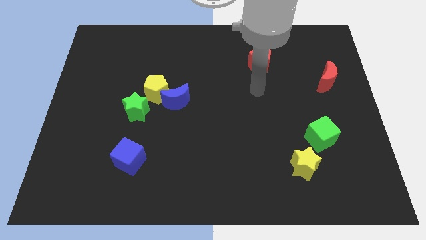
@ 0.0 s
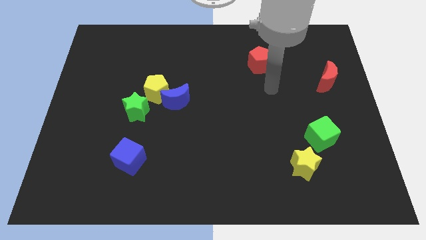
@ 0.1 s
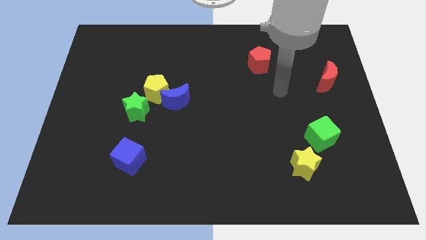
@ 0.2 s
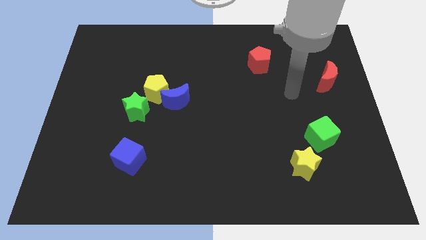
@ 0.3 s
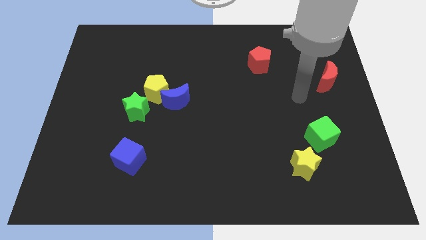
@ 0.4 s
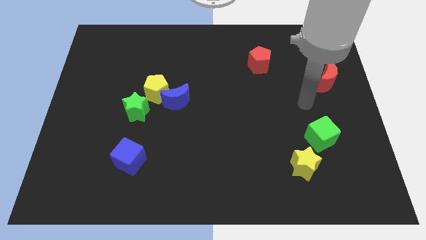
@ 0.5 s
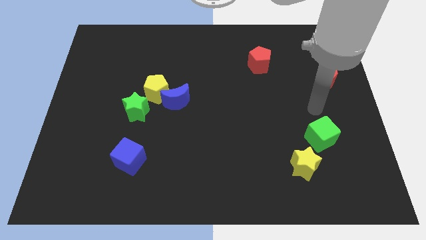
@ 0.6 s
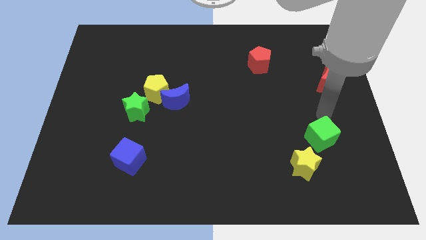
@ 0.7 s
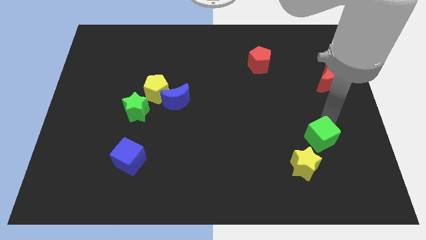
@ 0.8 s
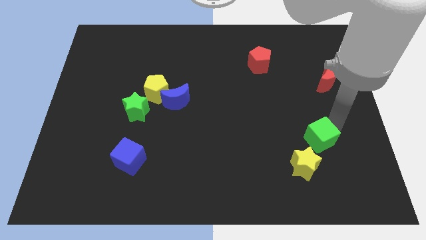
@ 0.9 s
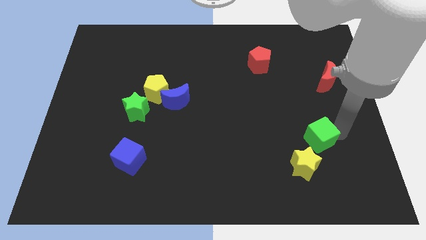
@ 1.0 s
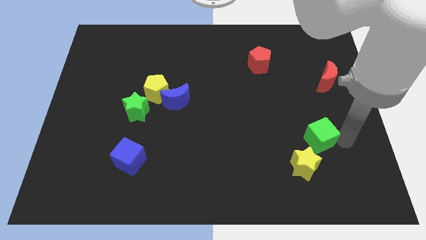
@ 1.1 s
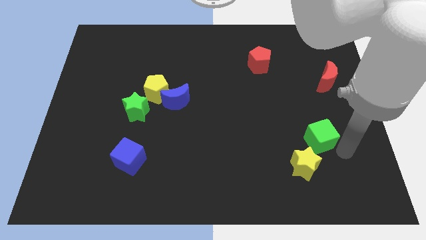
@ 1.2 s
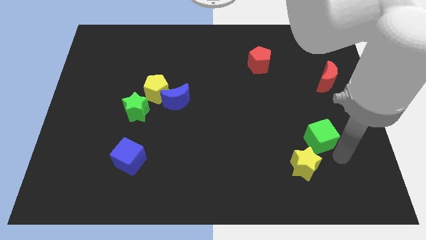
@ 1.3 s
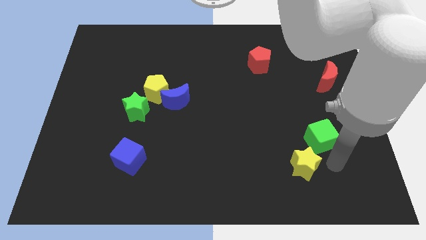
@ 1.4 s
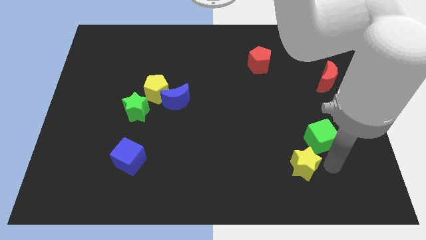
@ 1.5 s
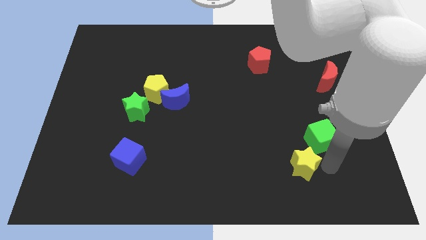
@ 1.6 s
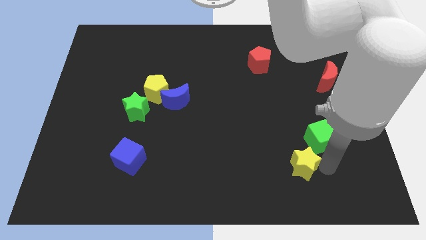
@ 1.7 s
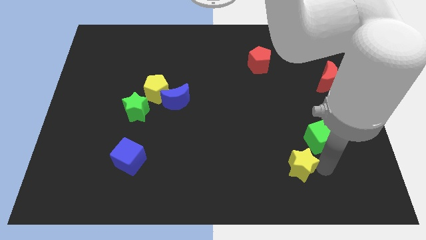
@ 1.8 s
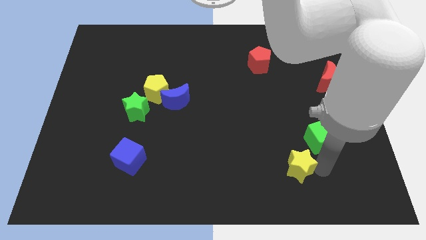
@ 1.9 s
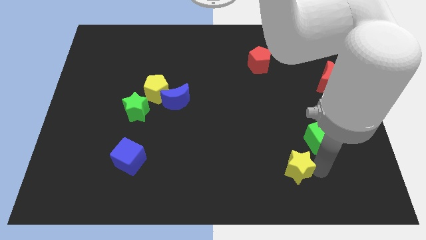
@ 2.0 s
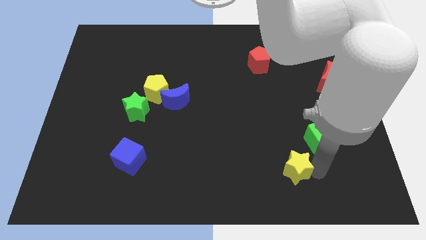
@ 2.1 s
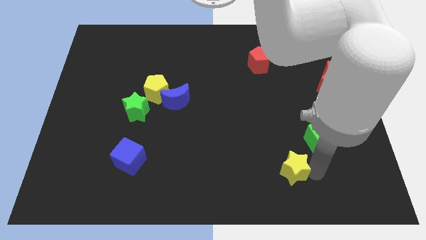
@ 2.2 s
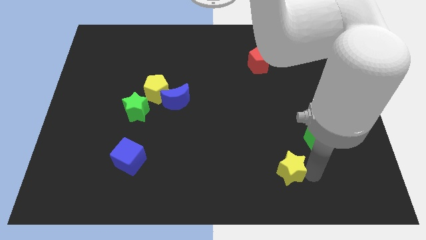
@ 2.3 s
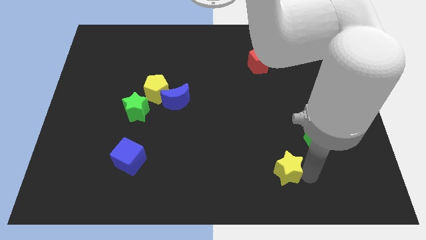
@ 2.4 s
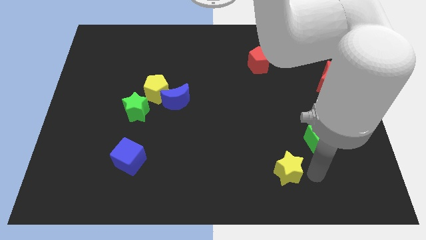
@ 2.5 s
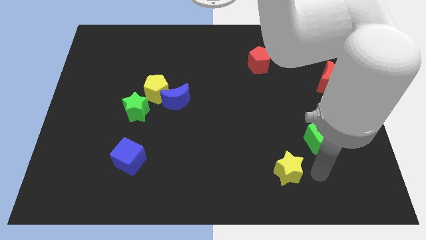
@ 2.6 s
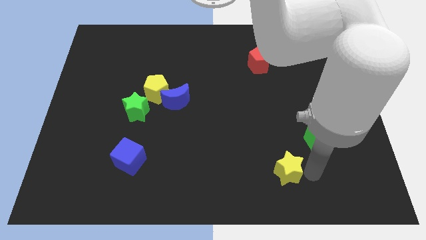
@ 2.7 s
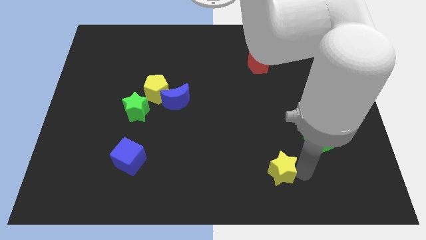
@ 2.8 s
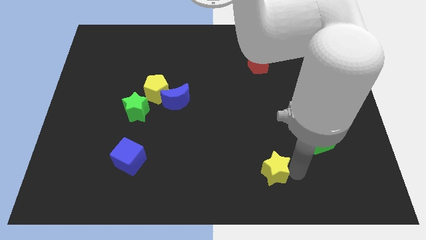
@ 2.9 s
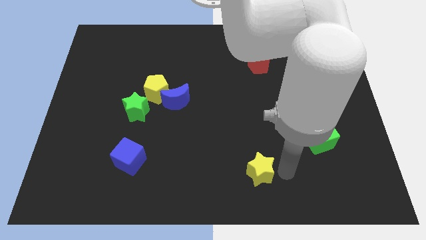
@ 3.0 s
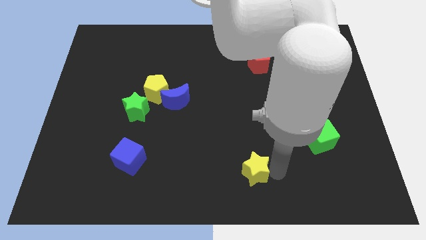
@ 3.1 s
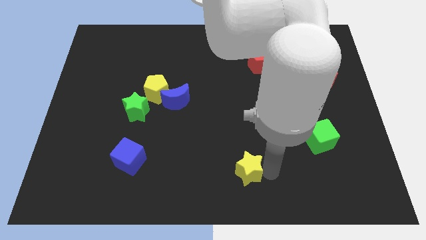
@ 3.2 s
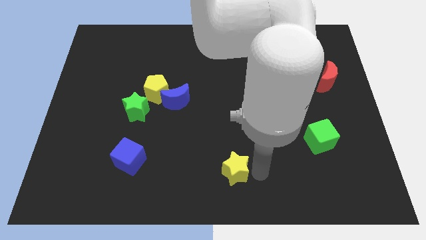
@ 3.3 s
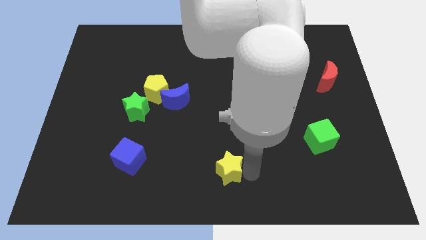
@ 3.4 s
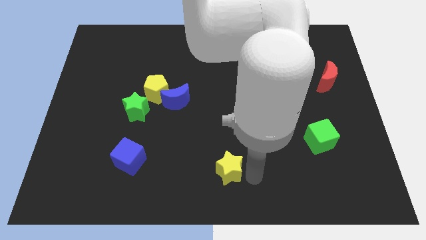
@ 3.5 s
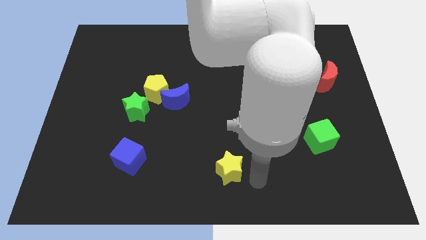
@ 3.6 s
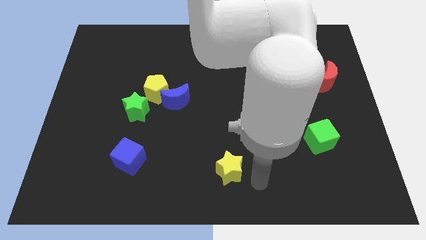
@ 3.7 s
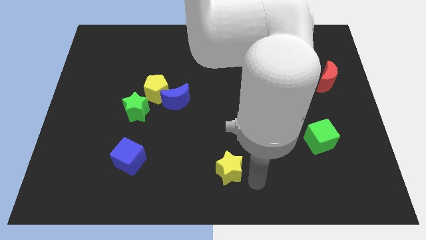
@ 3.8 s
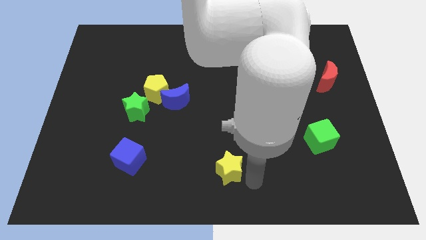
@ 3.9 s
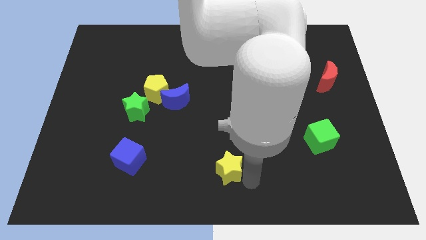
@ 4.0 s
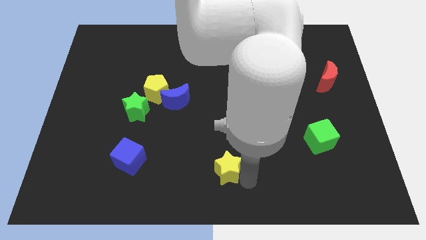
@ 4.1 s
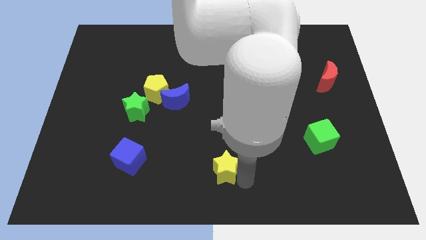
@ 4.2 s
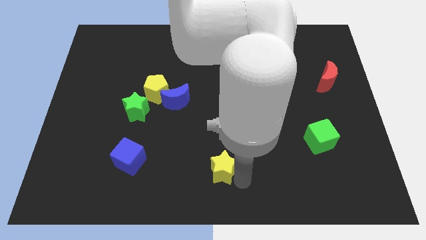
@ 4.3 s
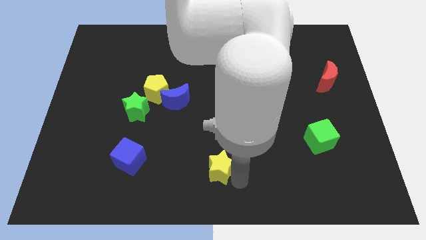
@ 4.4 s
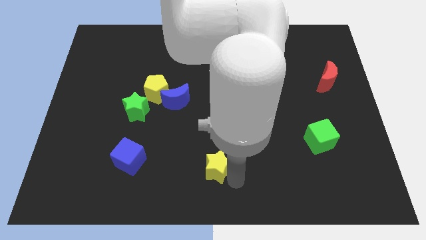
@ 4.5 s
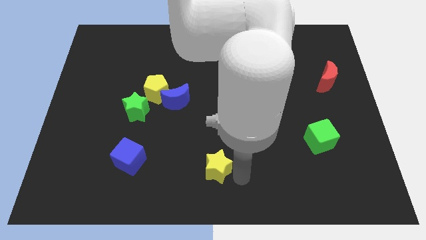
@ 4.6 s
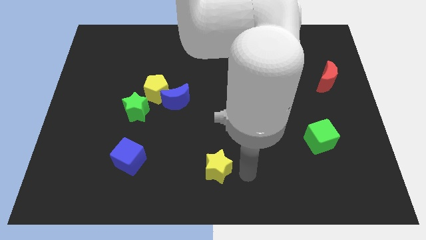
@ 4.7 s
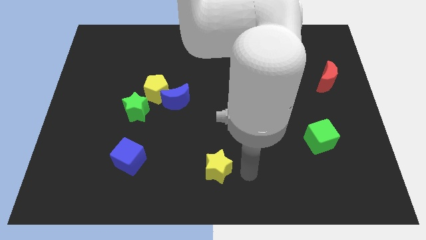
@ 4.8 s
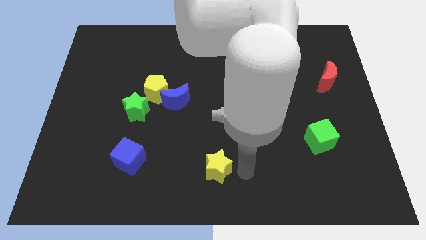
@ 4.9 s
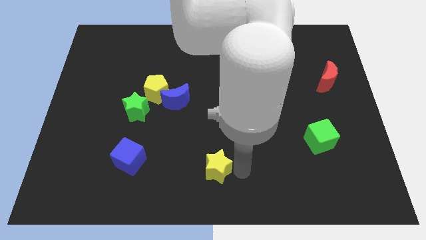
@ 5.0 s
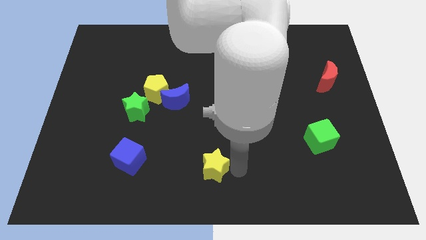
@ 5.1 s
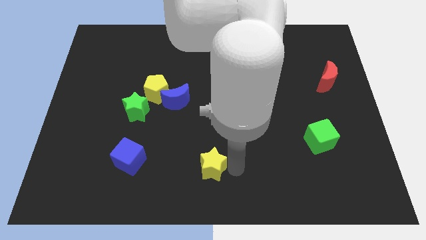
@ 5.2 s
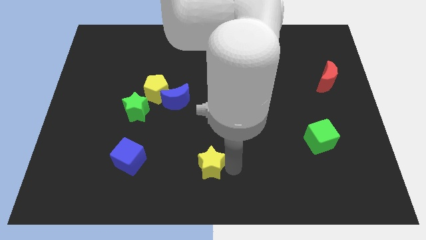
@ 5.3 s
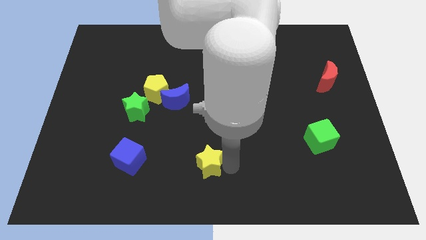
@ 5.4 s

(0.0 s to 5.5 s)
push the yellow star to the left

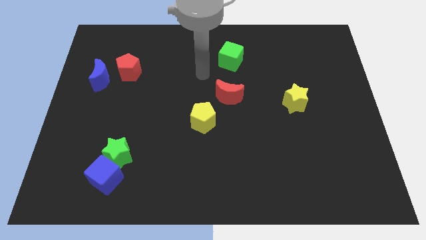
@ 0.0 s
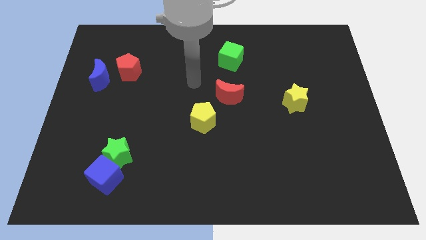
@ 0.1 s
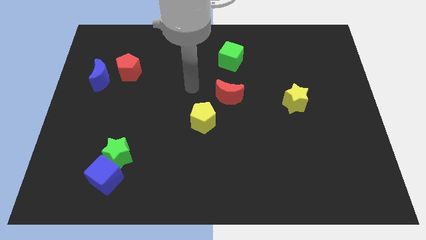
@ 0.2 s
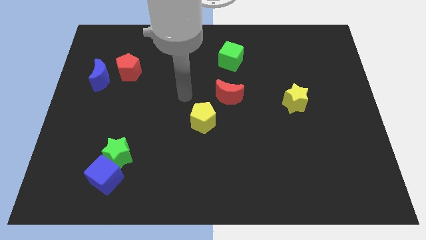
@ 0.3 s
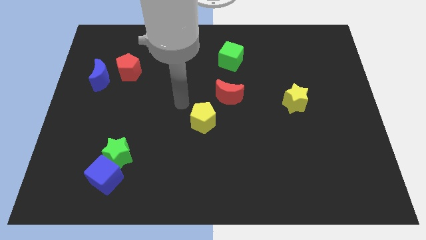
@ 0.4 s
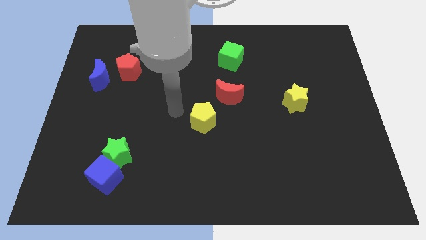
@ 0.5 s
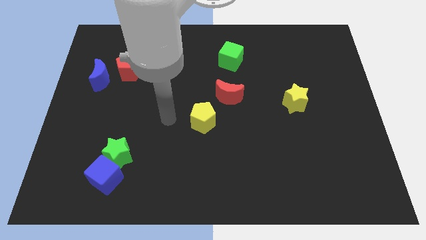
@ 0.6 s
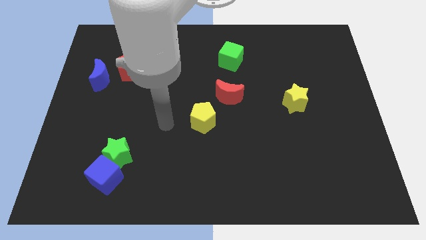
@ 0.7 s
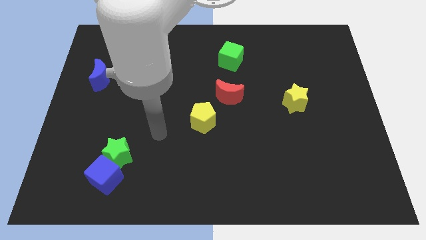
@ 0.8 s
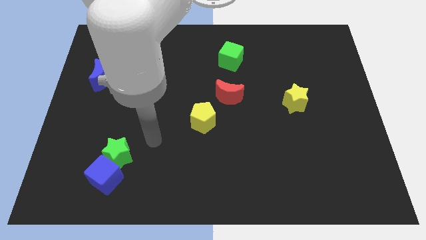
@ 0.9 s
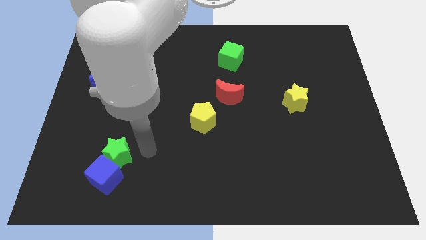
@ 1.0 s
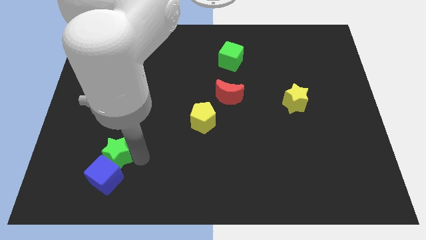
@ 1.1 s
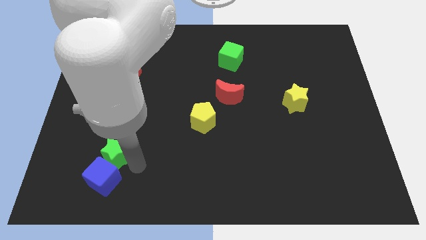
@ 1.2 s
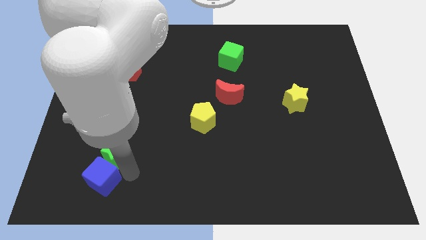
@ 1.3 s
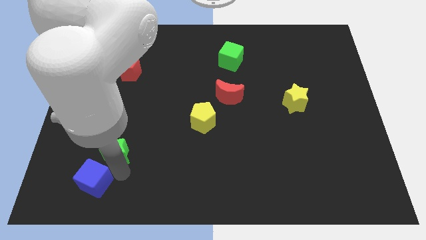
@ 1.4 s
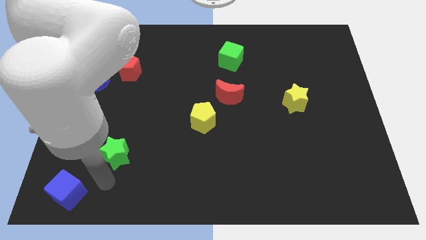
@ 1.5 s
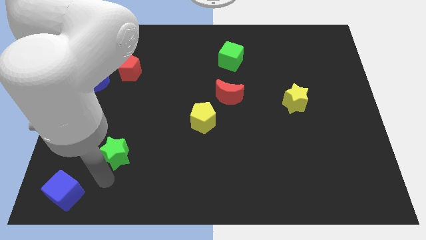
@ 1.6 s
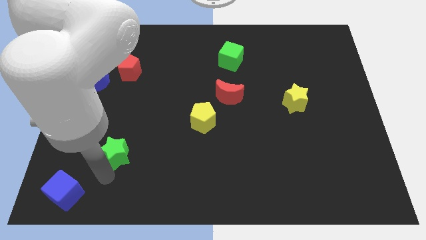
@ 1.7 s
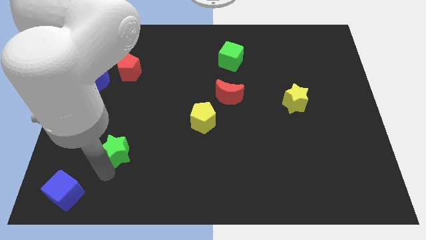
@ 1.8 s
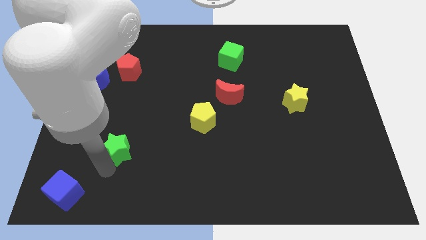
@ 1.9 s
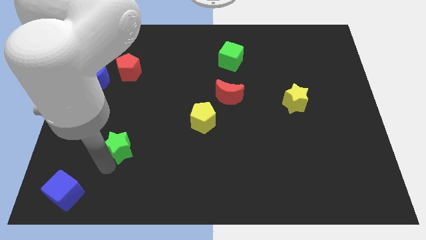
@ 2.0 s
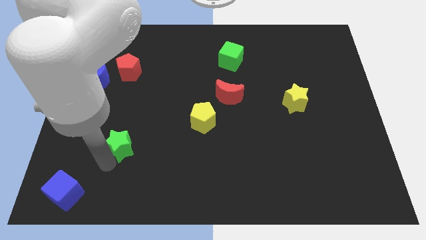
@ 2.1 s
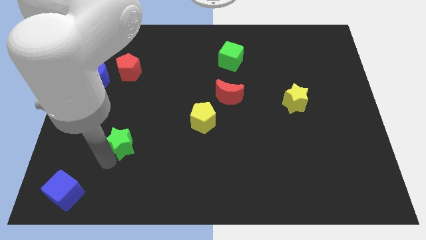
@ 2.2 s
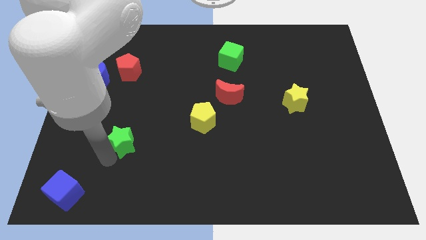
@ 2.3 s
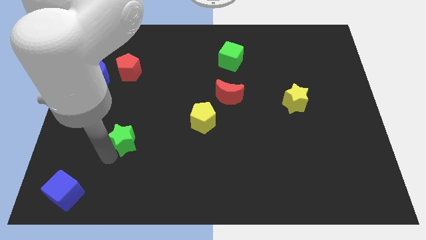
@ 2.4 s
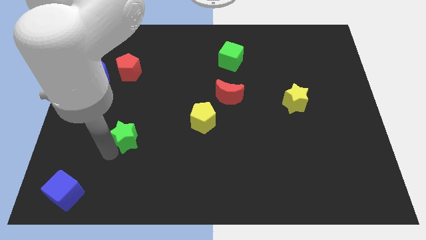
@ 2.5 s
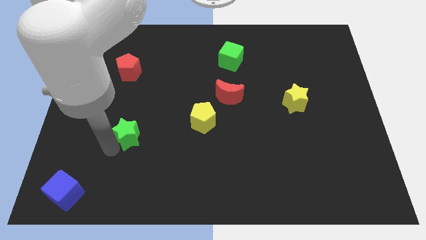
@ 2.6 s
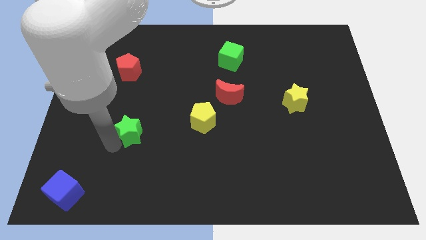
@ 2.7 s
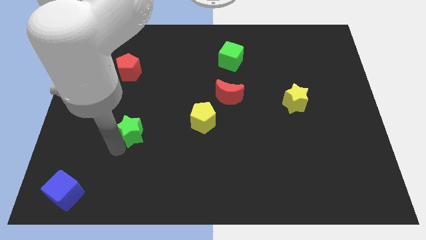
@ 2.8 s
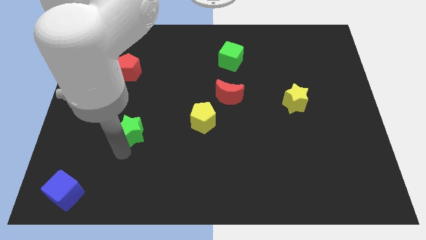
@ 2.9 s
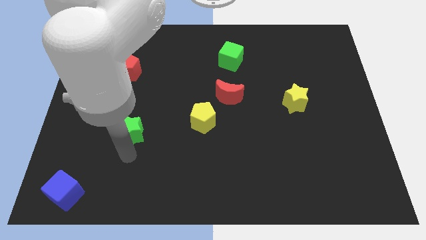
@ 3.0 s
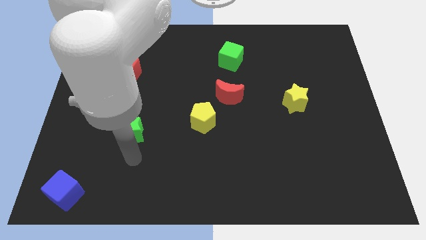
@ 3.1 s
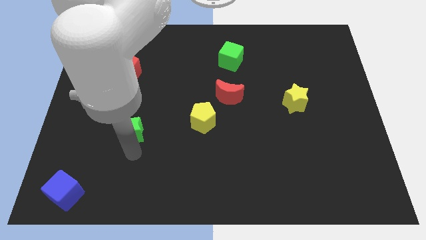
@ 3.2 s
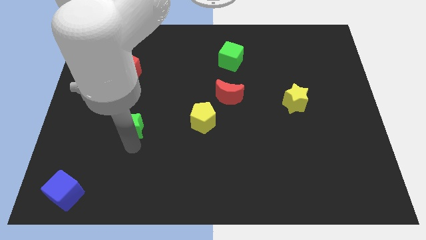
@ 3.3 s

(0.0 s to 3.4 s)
push the green star upwards a little bit
